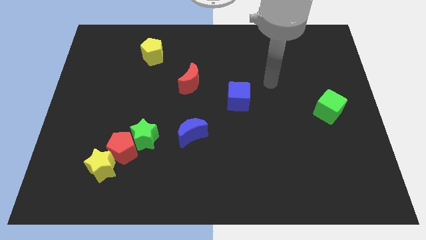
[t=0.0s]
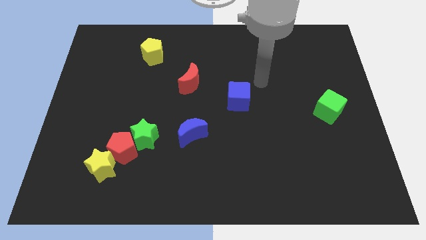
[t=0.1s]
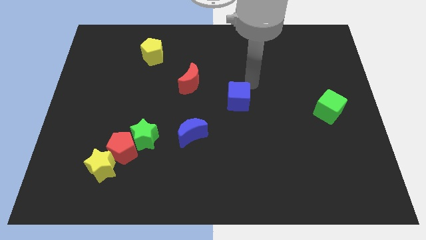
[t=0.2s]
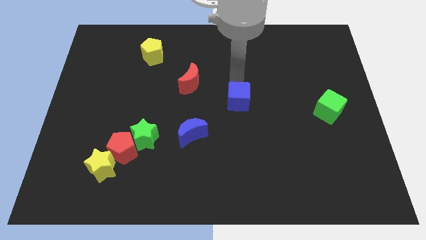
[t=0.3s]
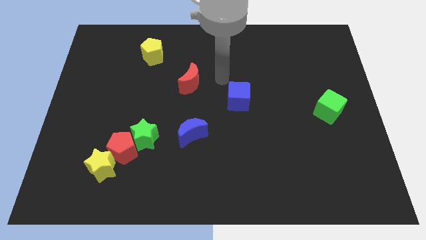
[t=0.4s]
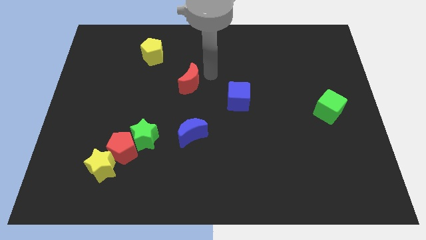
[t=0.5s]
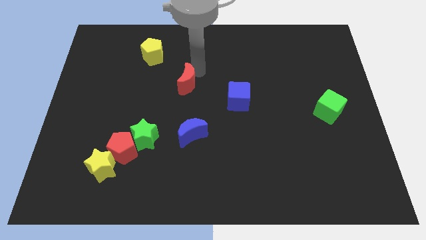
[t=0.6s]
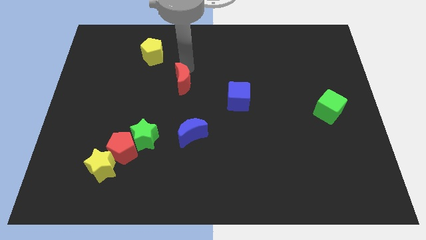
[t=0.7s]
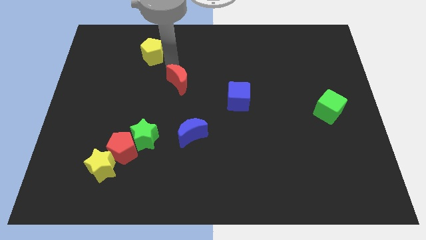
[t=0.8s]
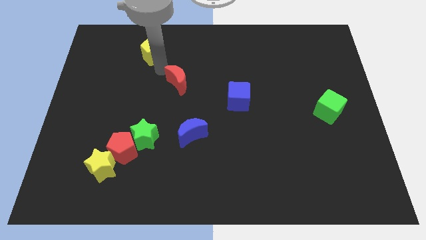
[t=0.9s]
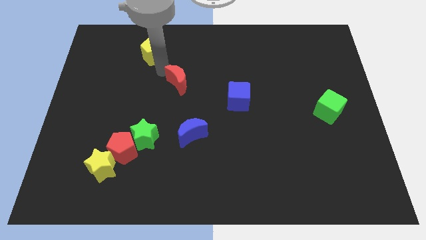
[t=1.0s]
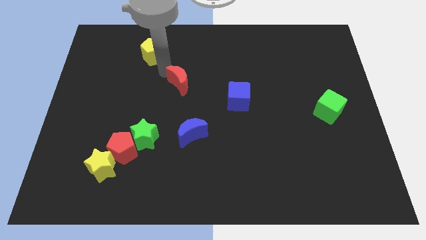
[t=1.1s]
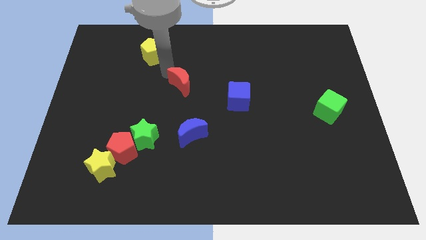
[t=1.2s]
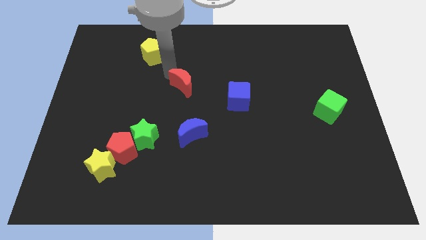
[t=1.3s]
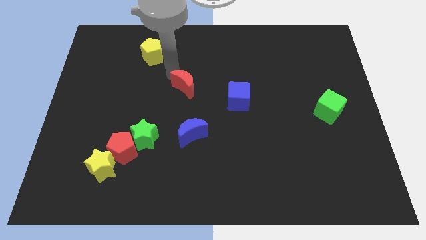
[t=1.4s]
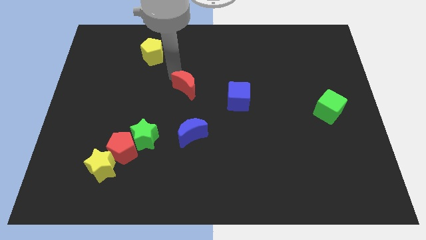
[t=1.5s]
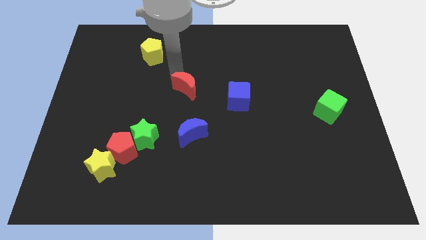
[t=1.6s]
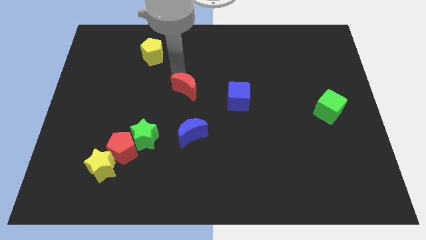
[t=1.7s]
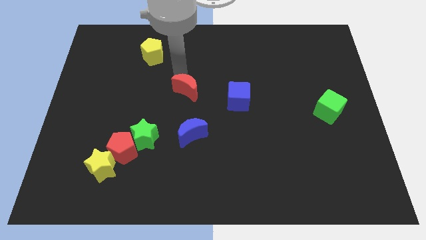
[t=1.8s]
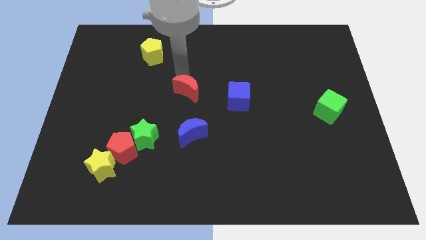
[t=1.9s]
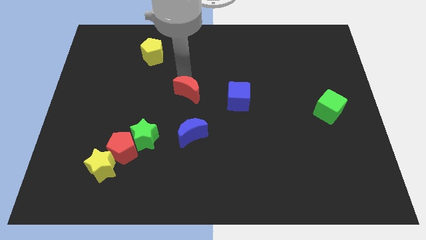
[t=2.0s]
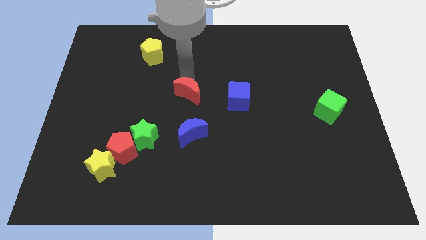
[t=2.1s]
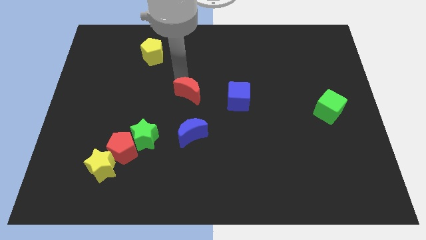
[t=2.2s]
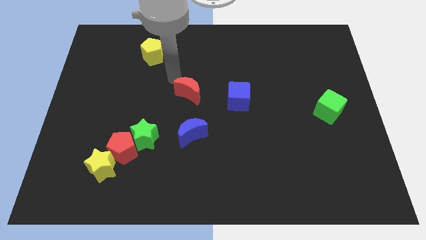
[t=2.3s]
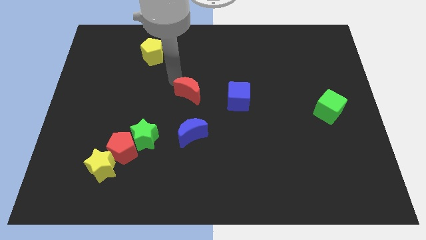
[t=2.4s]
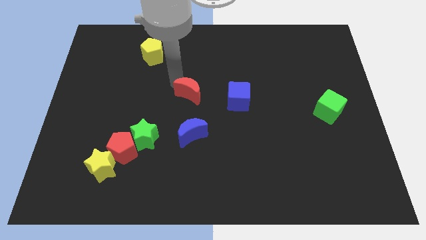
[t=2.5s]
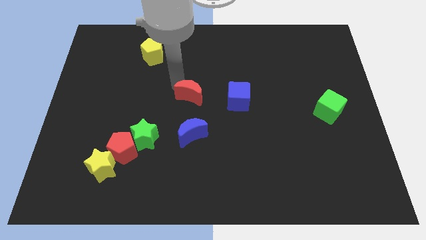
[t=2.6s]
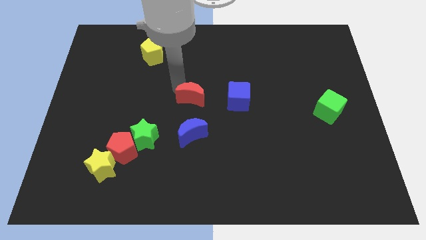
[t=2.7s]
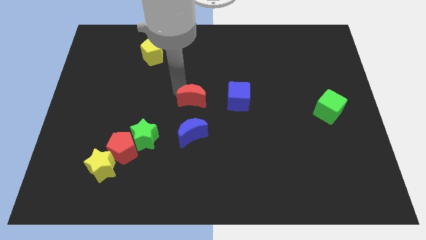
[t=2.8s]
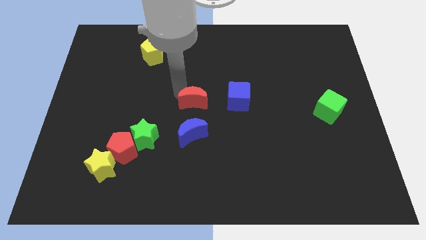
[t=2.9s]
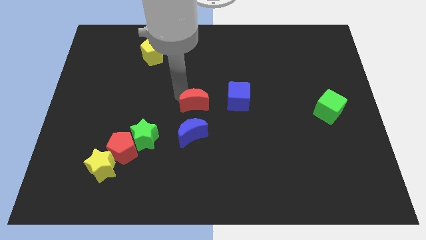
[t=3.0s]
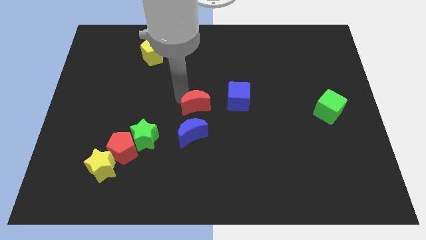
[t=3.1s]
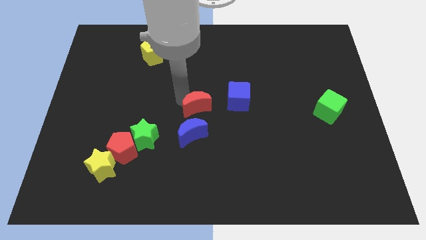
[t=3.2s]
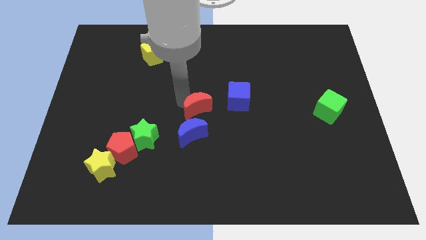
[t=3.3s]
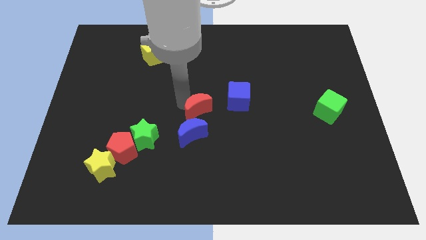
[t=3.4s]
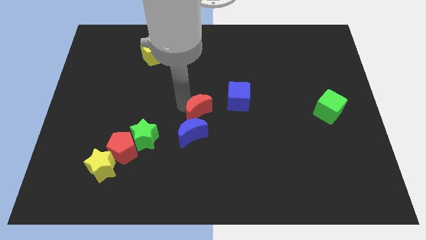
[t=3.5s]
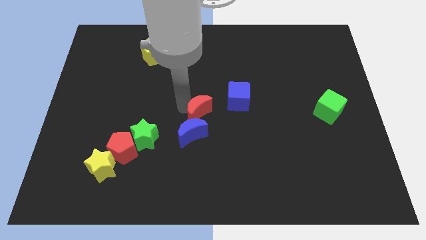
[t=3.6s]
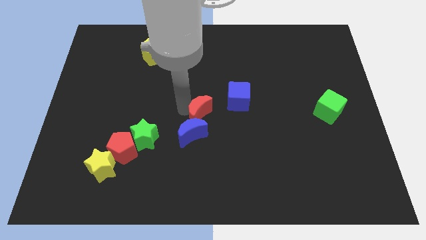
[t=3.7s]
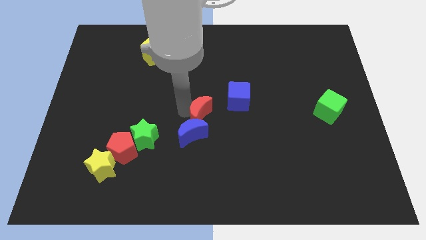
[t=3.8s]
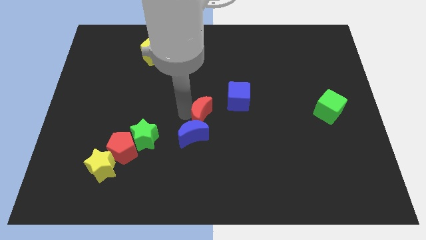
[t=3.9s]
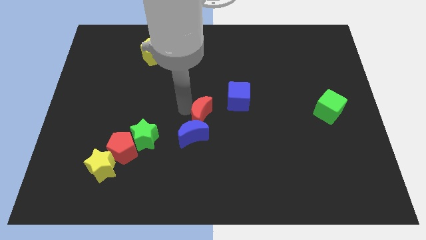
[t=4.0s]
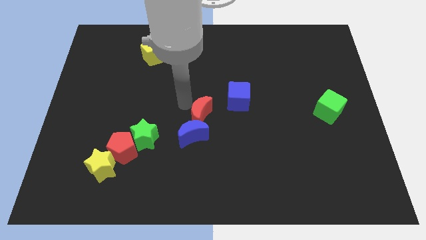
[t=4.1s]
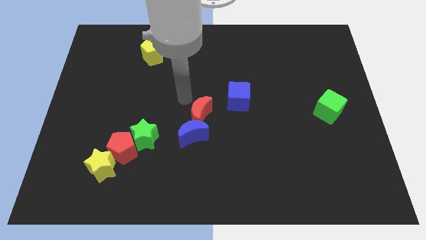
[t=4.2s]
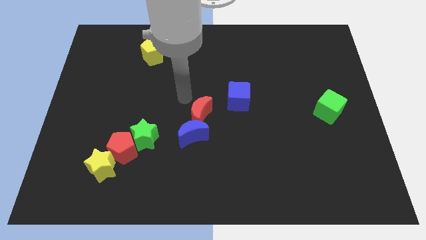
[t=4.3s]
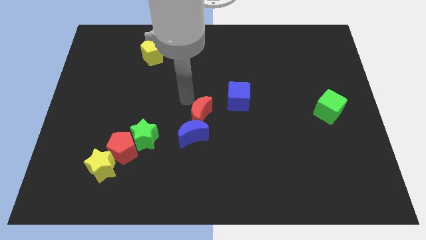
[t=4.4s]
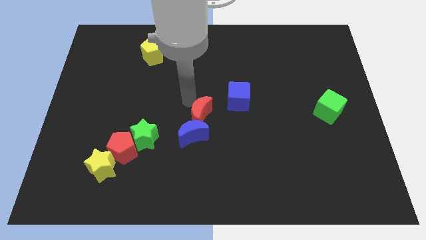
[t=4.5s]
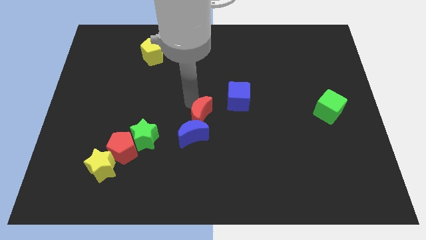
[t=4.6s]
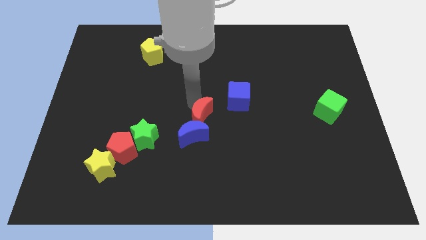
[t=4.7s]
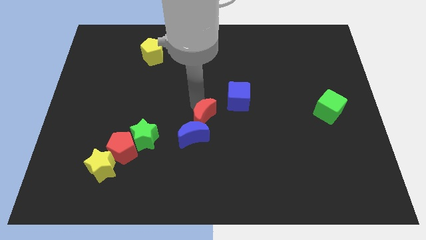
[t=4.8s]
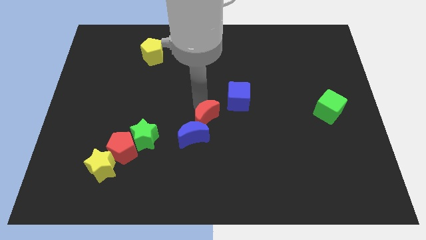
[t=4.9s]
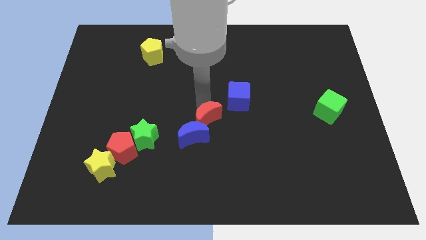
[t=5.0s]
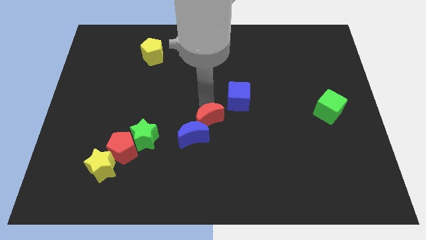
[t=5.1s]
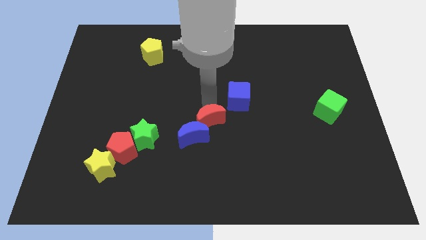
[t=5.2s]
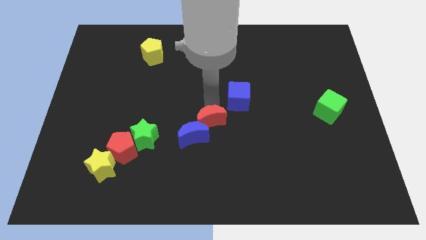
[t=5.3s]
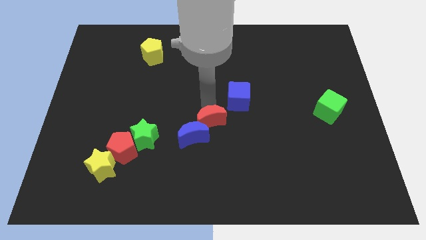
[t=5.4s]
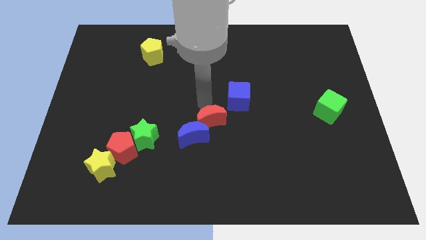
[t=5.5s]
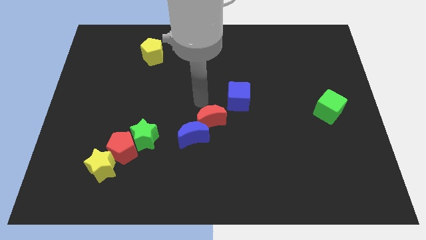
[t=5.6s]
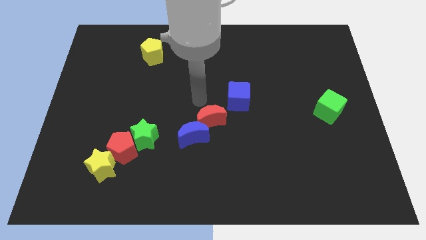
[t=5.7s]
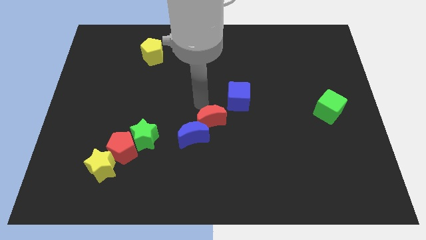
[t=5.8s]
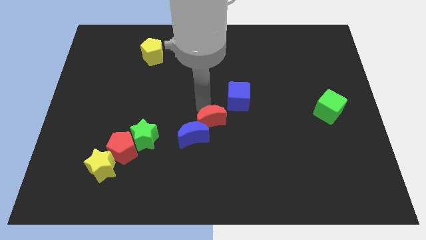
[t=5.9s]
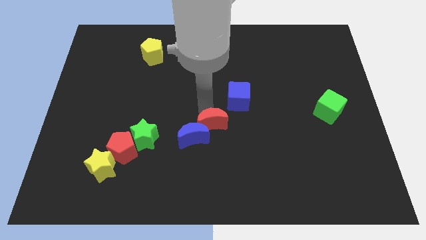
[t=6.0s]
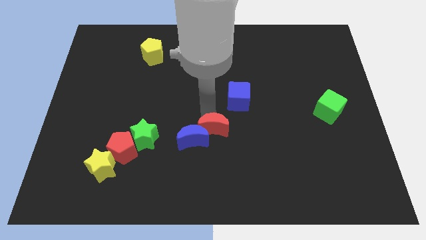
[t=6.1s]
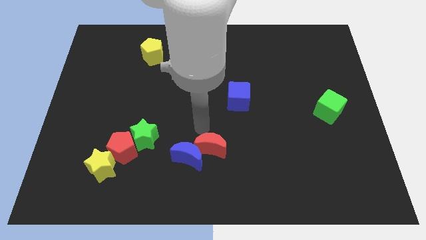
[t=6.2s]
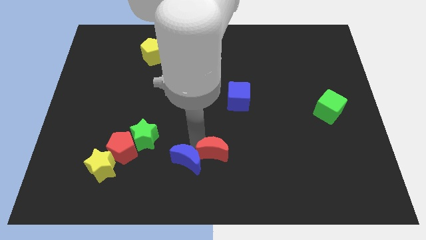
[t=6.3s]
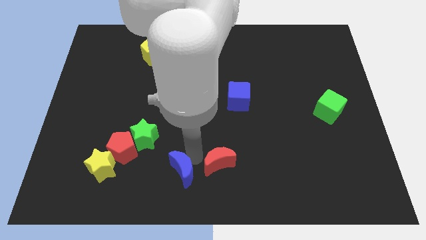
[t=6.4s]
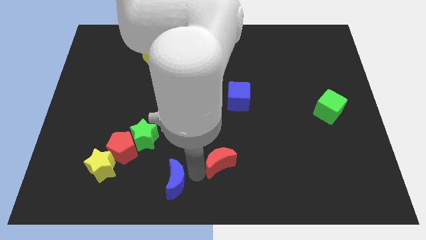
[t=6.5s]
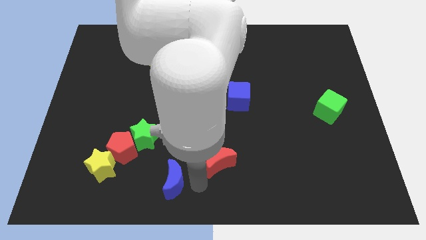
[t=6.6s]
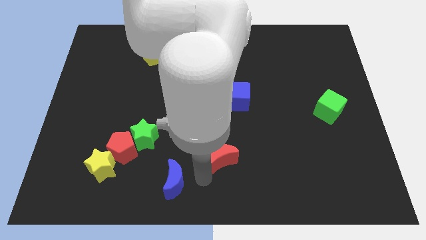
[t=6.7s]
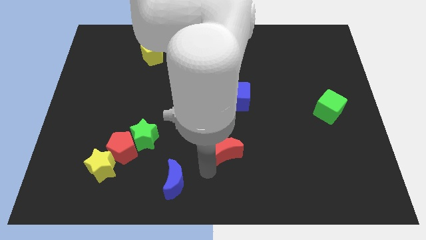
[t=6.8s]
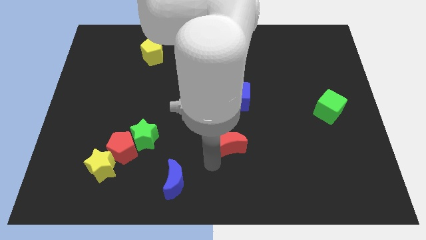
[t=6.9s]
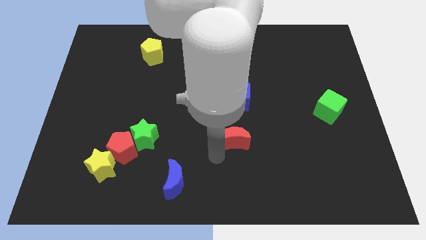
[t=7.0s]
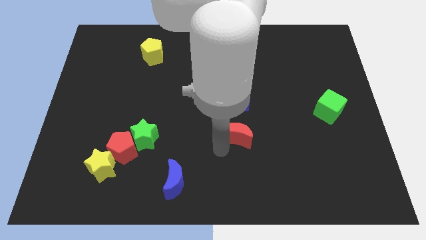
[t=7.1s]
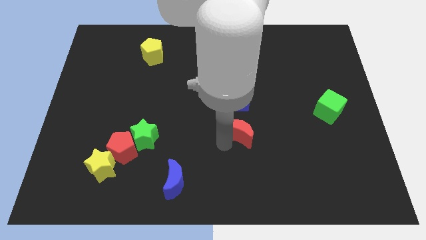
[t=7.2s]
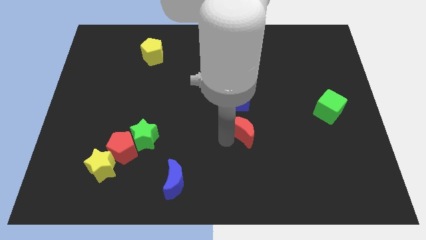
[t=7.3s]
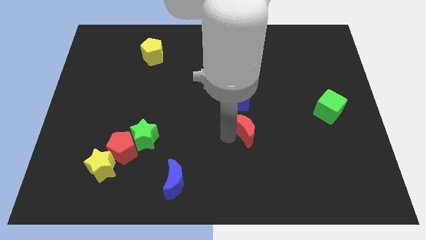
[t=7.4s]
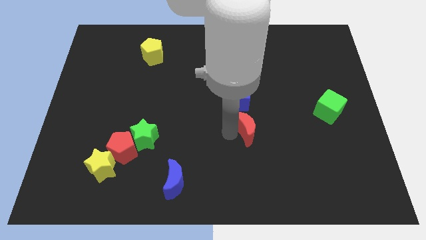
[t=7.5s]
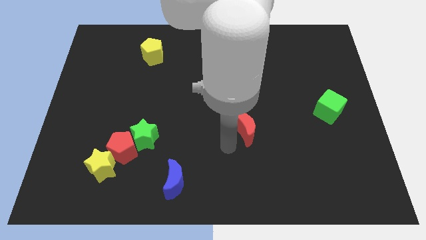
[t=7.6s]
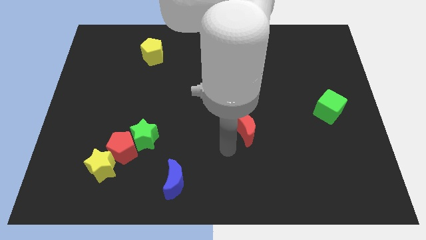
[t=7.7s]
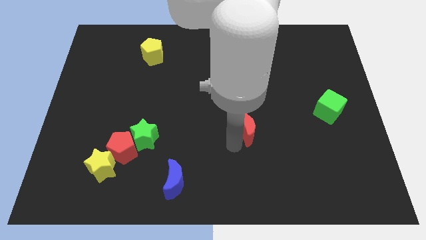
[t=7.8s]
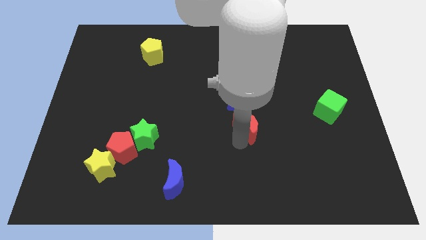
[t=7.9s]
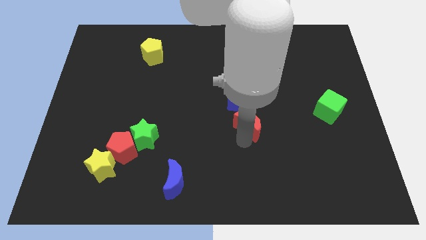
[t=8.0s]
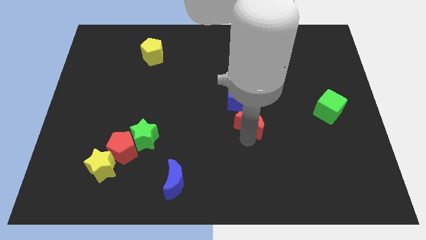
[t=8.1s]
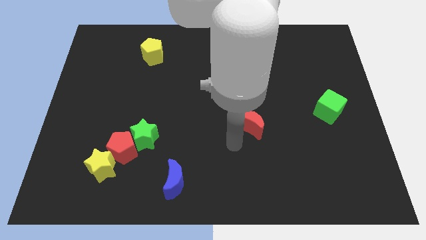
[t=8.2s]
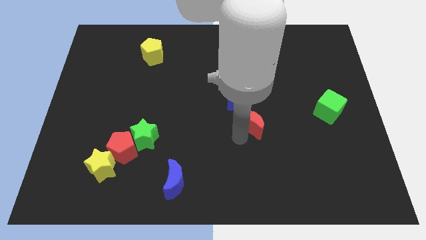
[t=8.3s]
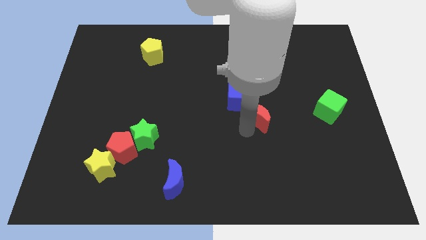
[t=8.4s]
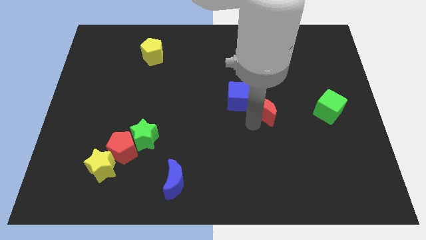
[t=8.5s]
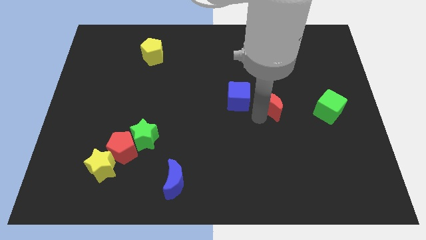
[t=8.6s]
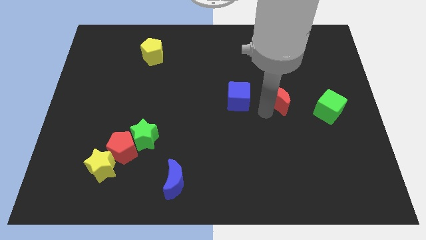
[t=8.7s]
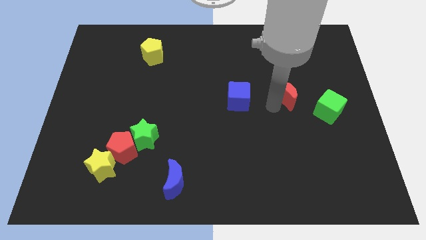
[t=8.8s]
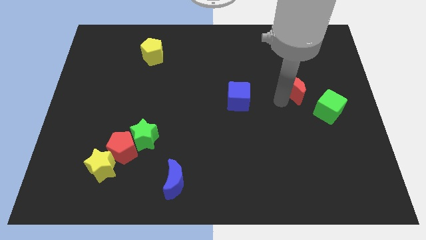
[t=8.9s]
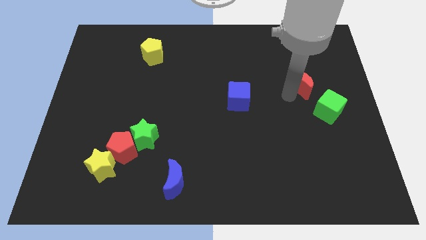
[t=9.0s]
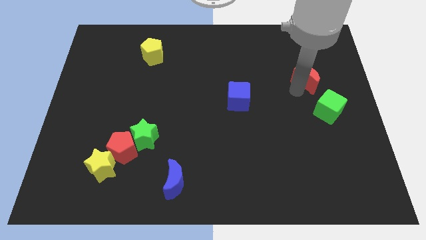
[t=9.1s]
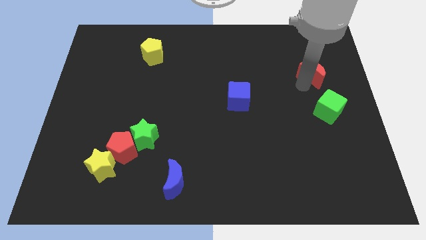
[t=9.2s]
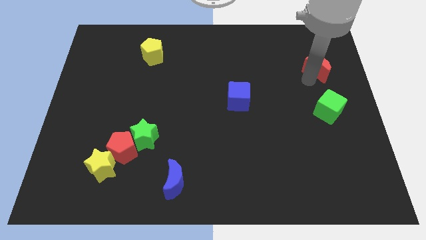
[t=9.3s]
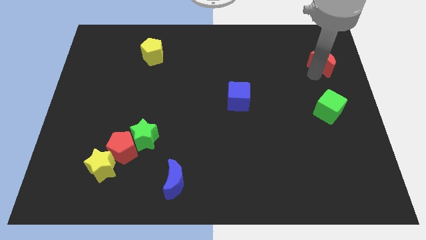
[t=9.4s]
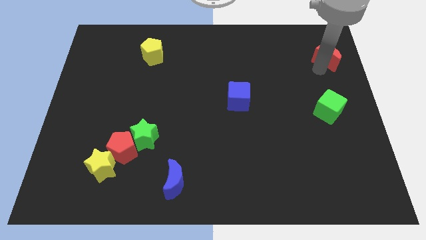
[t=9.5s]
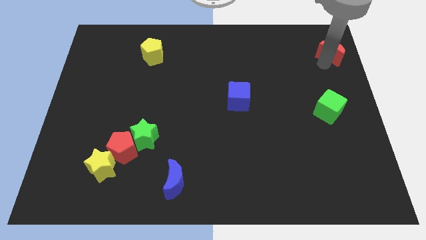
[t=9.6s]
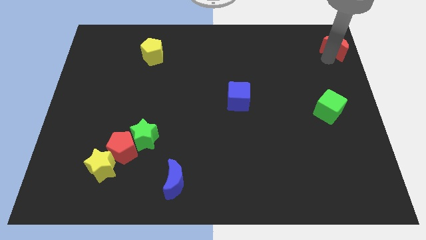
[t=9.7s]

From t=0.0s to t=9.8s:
put the red moon to the top right of the board
